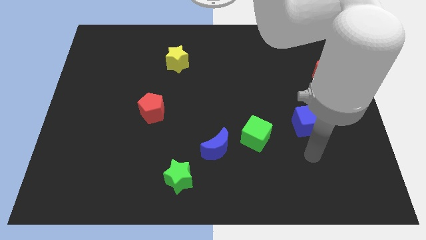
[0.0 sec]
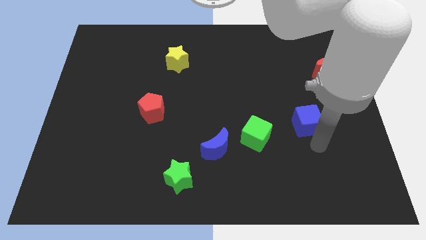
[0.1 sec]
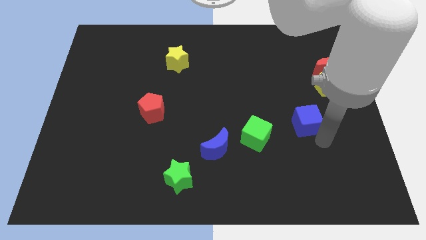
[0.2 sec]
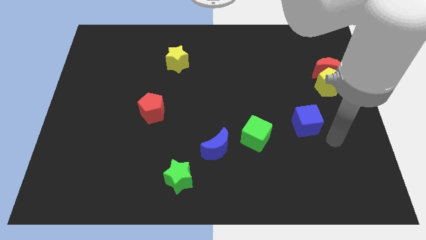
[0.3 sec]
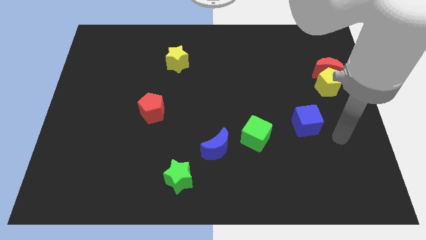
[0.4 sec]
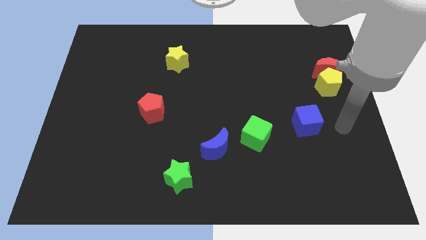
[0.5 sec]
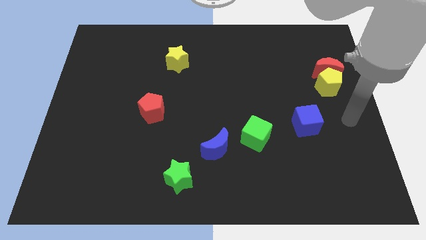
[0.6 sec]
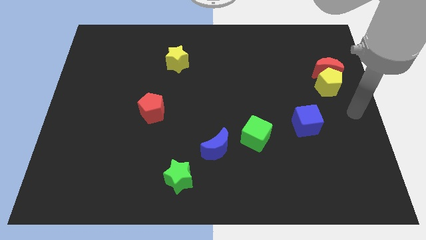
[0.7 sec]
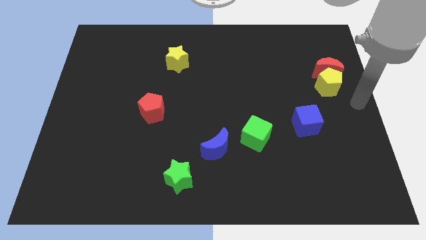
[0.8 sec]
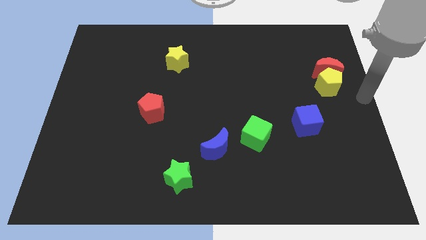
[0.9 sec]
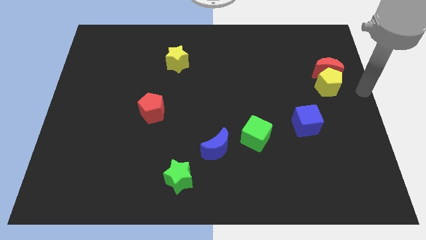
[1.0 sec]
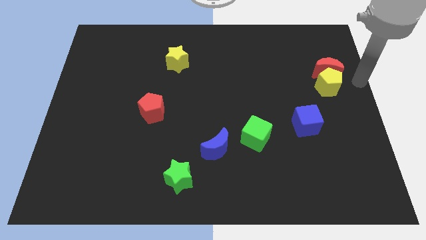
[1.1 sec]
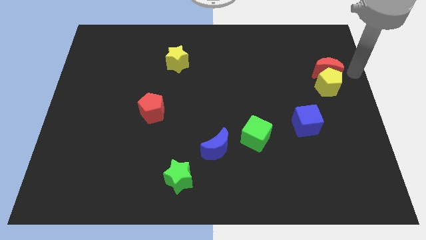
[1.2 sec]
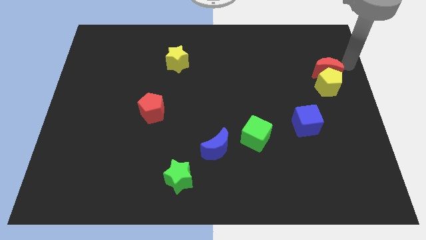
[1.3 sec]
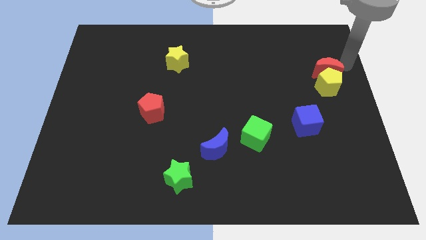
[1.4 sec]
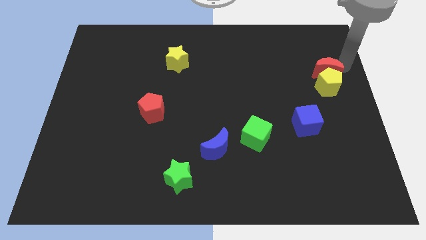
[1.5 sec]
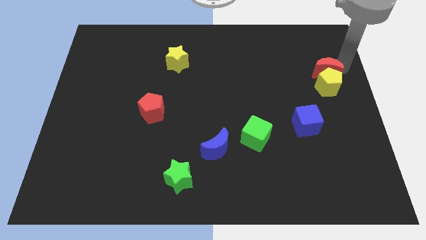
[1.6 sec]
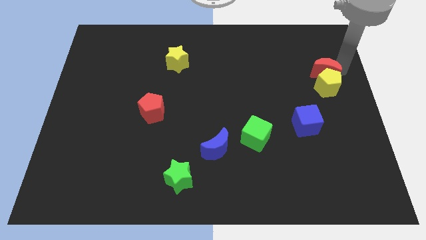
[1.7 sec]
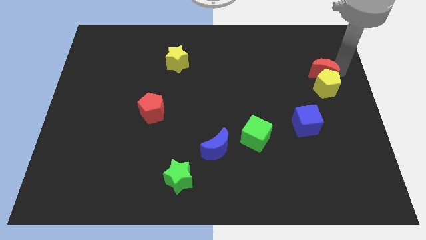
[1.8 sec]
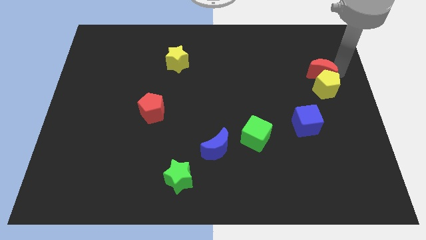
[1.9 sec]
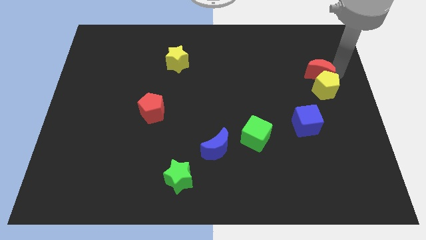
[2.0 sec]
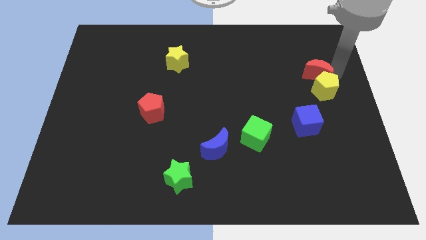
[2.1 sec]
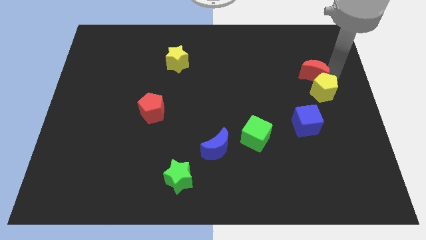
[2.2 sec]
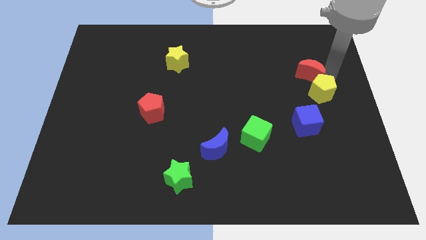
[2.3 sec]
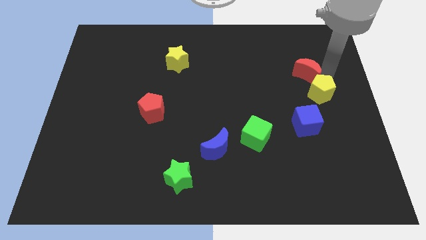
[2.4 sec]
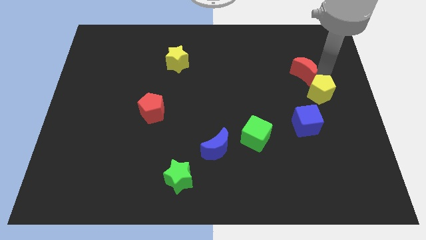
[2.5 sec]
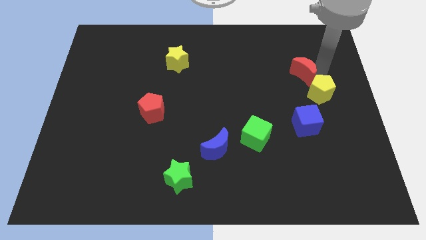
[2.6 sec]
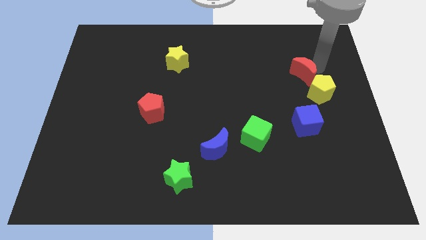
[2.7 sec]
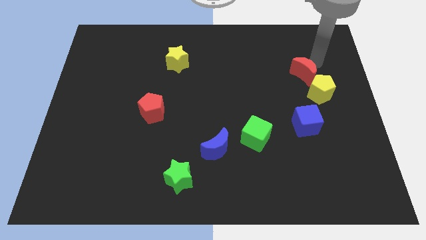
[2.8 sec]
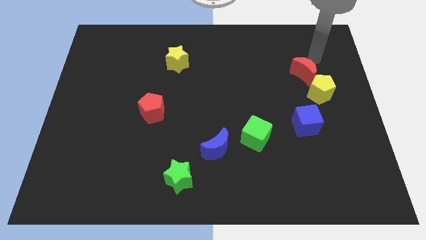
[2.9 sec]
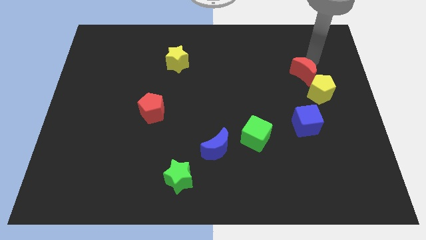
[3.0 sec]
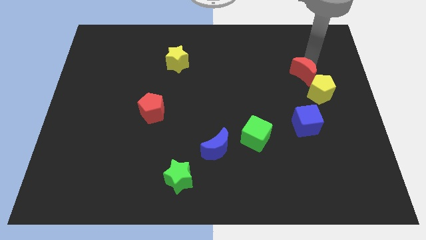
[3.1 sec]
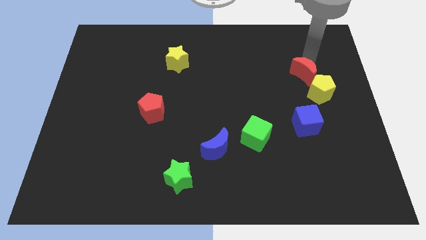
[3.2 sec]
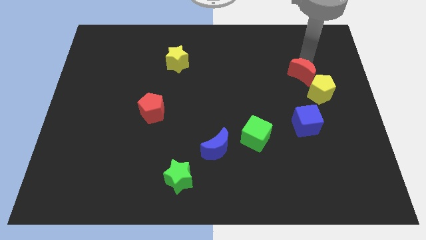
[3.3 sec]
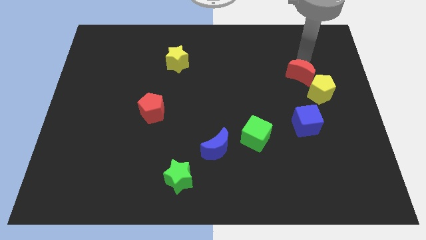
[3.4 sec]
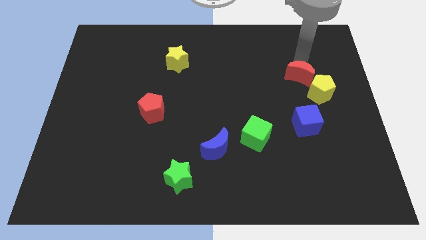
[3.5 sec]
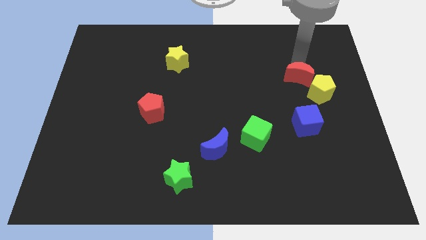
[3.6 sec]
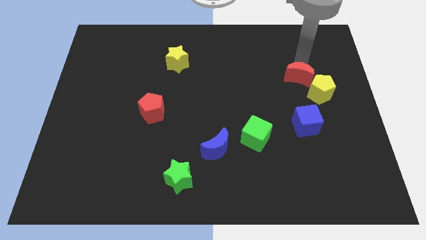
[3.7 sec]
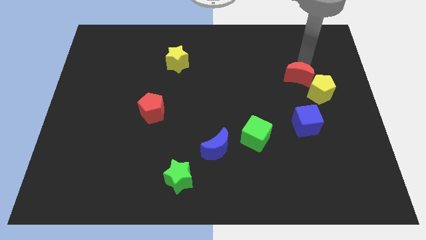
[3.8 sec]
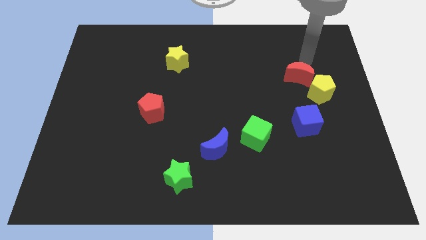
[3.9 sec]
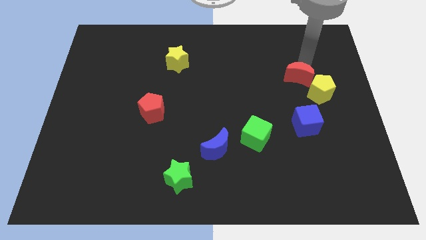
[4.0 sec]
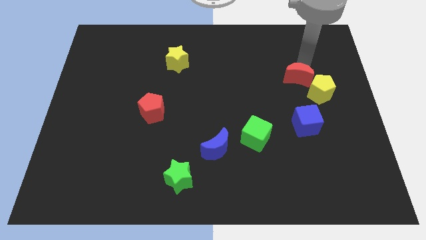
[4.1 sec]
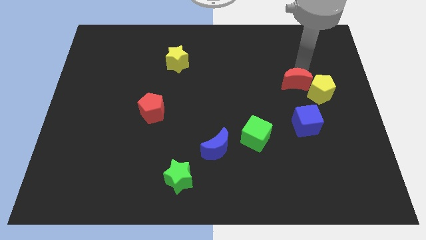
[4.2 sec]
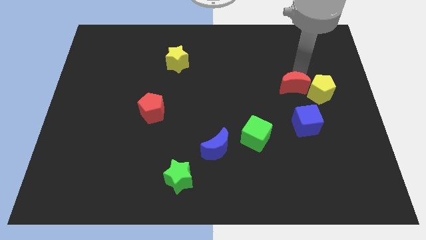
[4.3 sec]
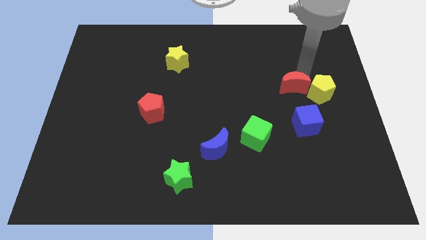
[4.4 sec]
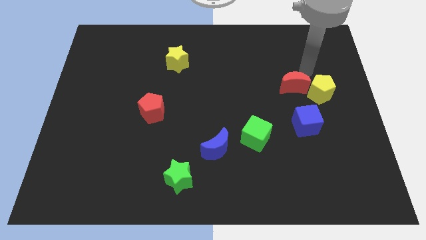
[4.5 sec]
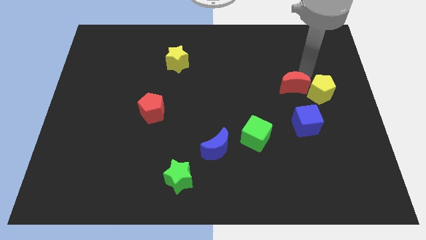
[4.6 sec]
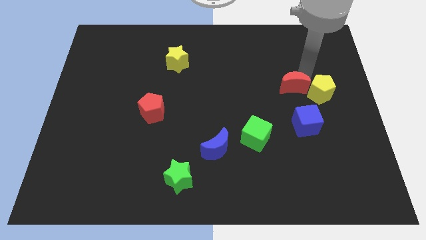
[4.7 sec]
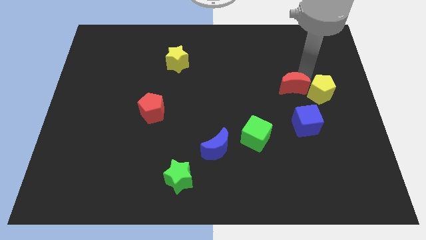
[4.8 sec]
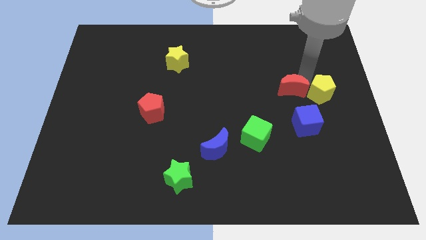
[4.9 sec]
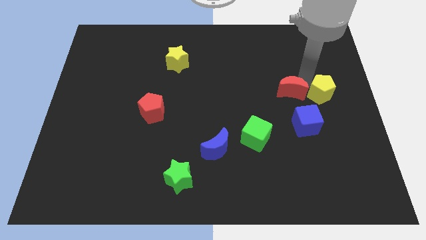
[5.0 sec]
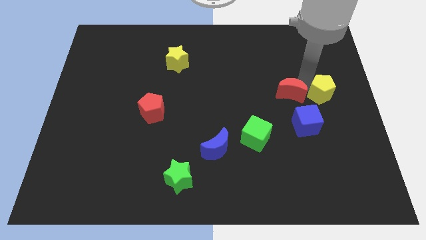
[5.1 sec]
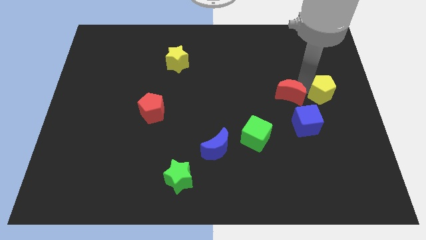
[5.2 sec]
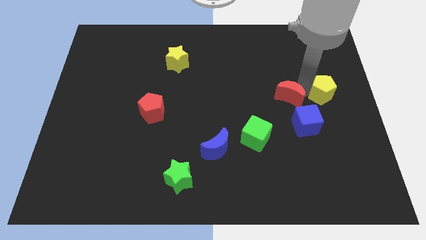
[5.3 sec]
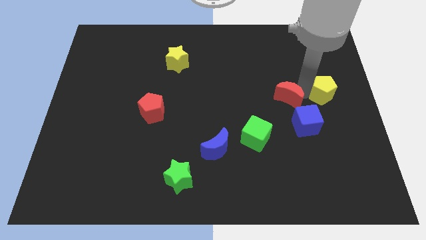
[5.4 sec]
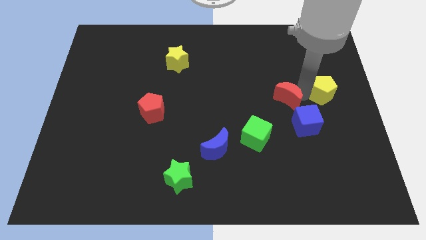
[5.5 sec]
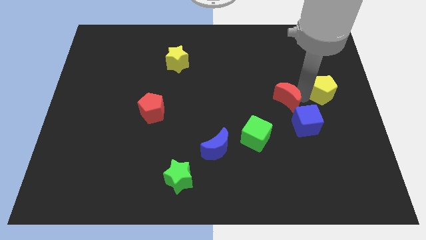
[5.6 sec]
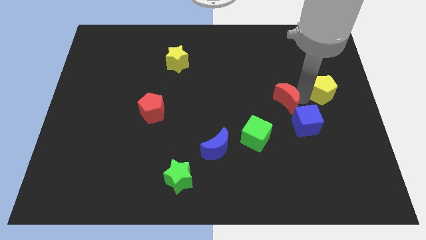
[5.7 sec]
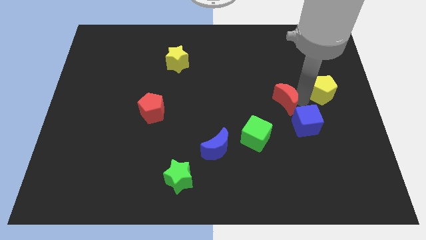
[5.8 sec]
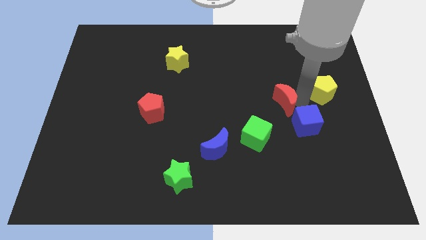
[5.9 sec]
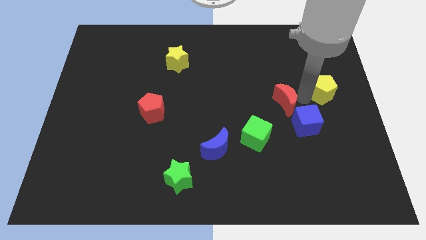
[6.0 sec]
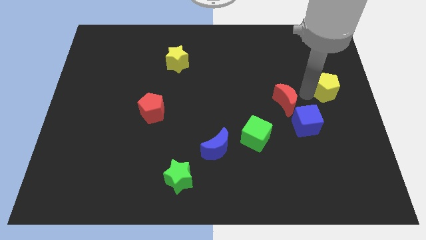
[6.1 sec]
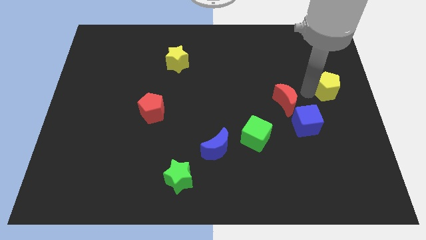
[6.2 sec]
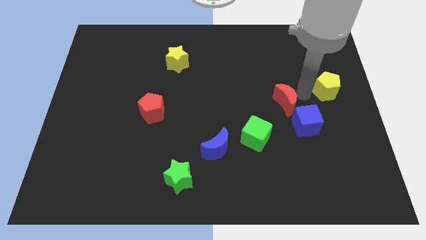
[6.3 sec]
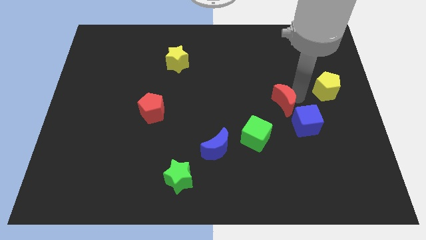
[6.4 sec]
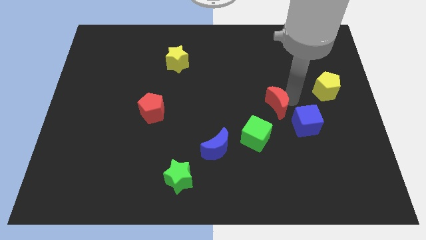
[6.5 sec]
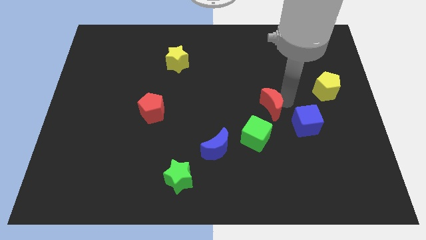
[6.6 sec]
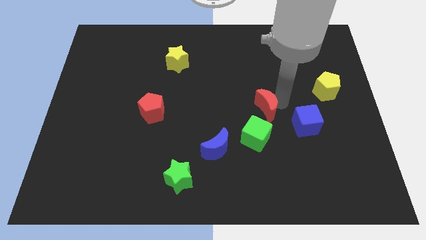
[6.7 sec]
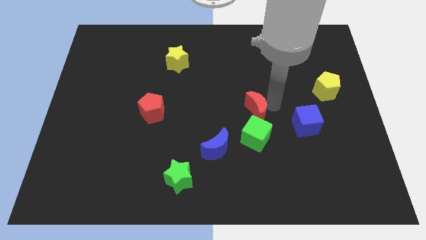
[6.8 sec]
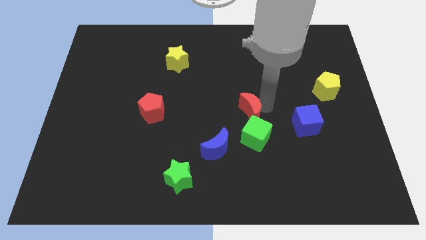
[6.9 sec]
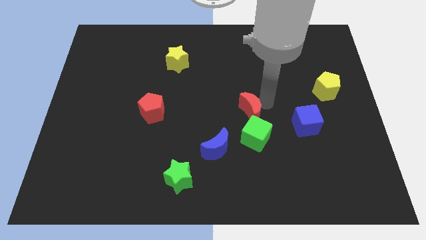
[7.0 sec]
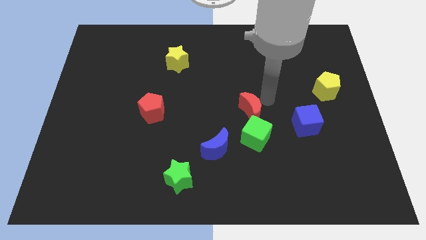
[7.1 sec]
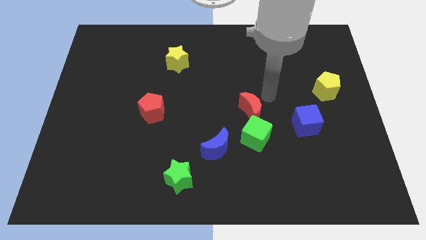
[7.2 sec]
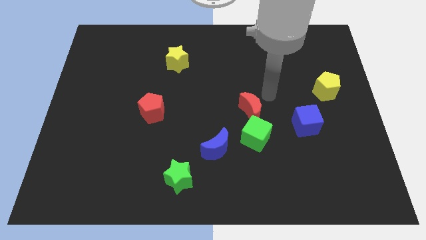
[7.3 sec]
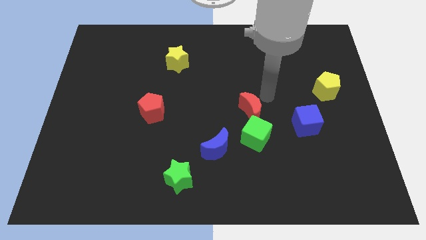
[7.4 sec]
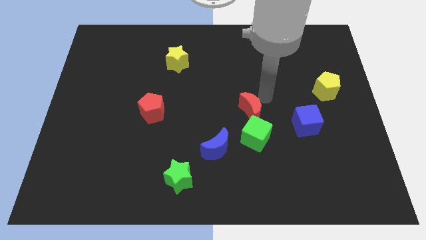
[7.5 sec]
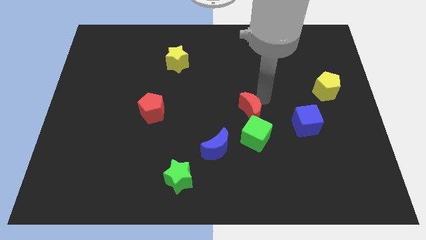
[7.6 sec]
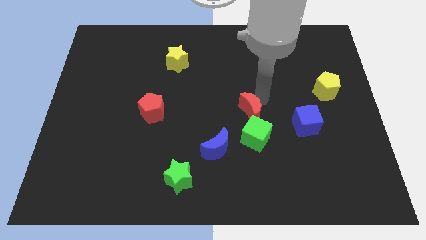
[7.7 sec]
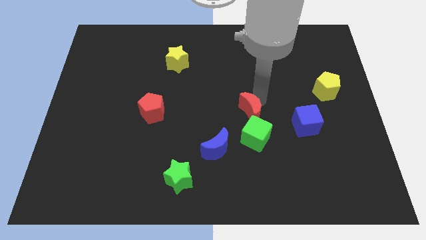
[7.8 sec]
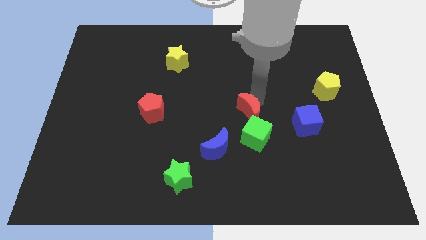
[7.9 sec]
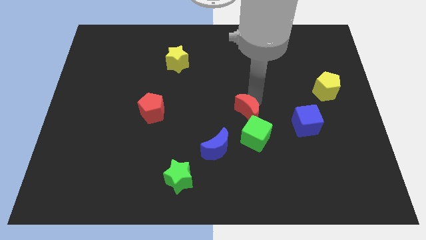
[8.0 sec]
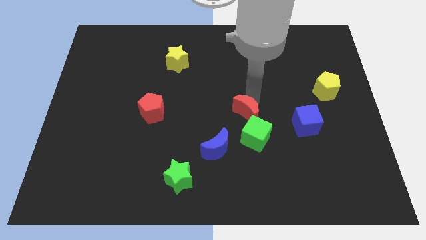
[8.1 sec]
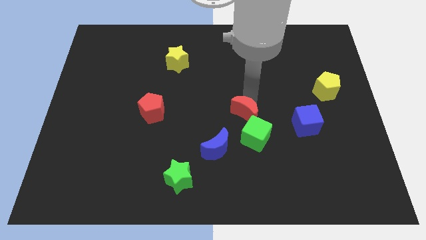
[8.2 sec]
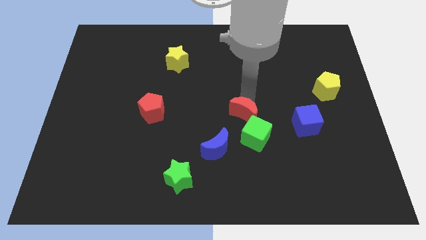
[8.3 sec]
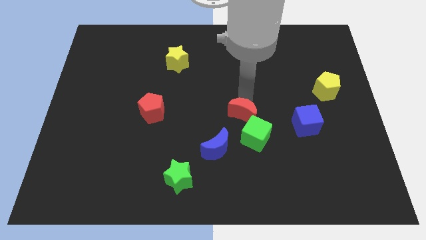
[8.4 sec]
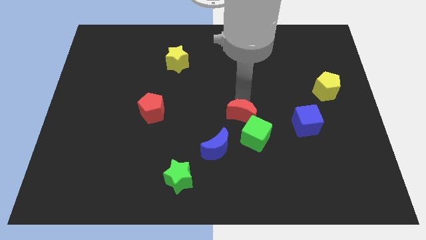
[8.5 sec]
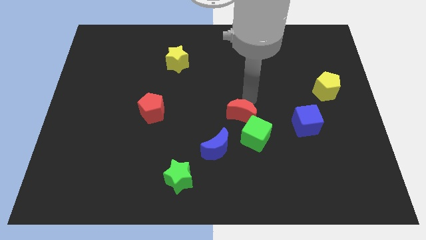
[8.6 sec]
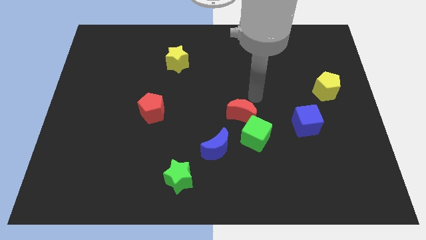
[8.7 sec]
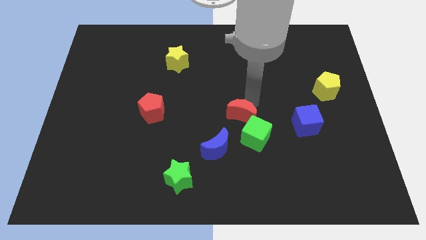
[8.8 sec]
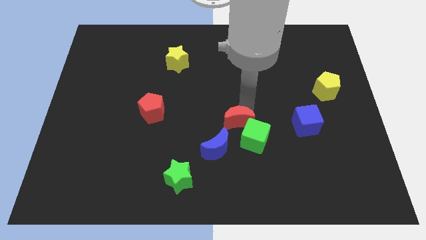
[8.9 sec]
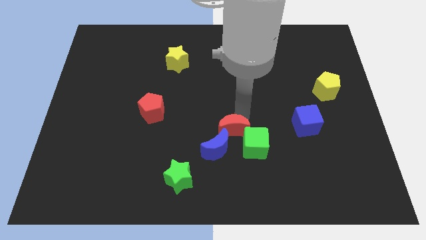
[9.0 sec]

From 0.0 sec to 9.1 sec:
slide the red moon next to the blue moon
